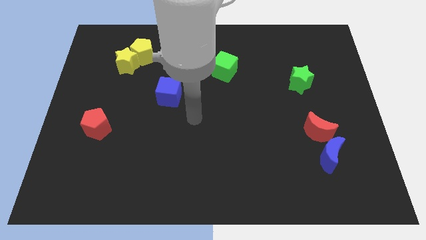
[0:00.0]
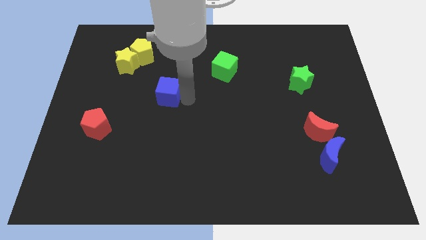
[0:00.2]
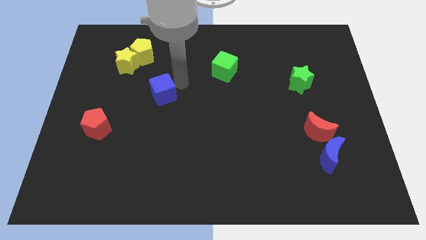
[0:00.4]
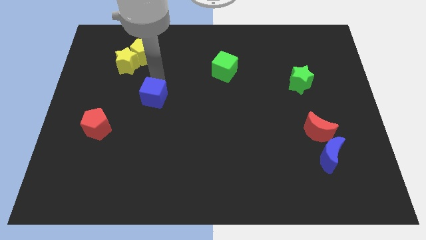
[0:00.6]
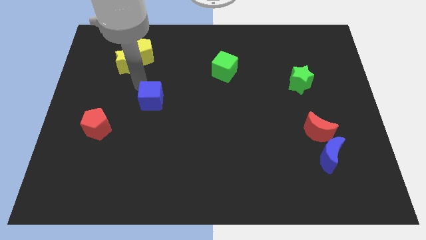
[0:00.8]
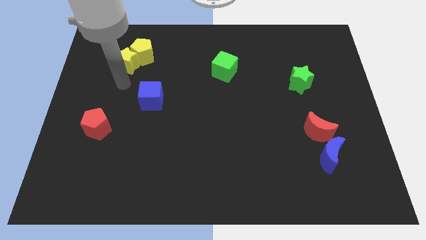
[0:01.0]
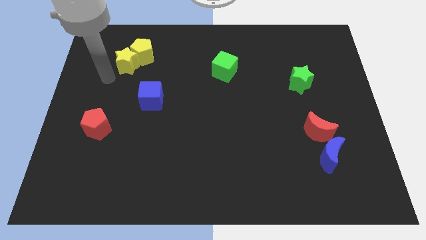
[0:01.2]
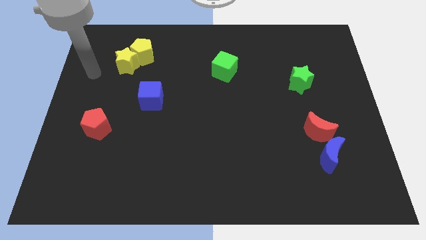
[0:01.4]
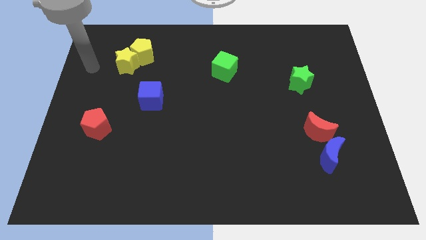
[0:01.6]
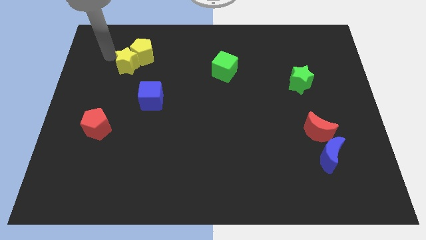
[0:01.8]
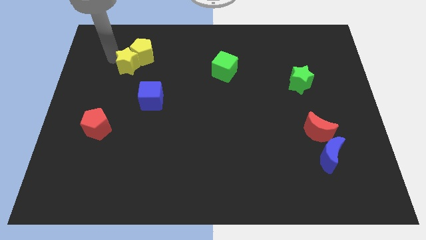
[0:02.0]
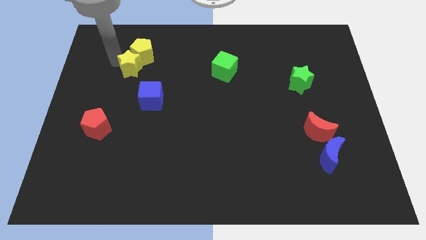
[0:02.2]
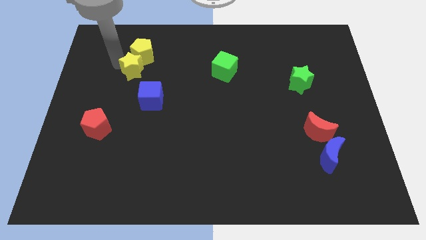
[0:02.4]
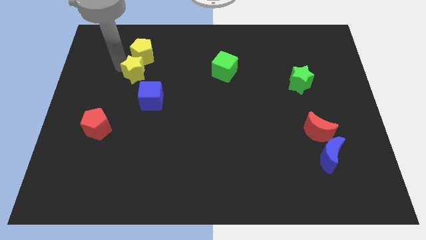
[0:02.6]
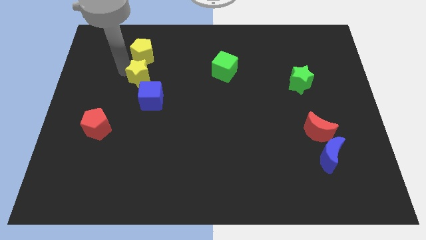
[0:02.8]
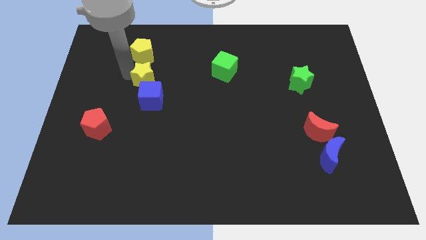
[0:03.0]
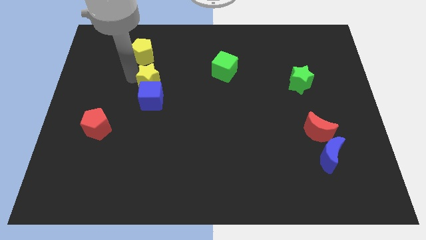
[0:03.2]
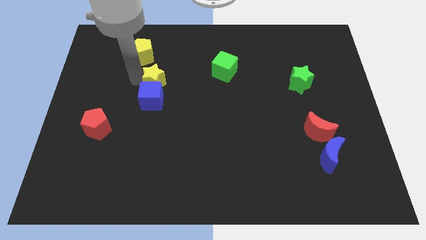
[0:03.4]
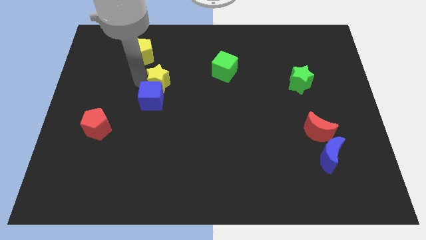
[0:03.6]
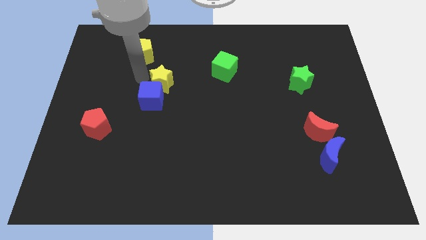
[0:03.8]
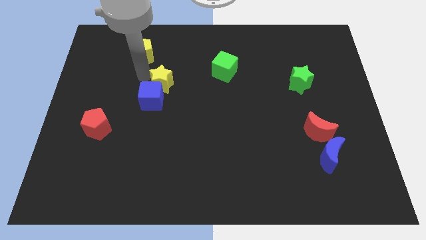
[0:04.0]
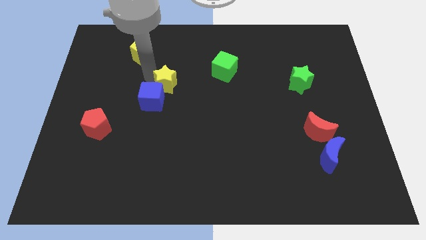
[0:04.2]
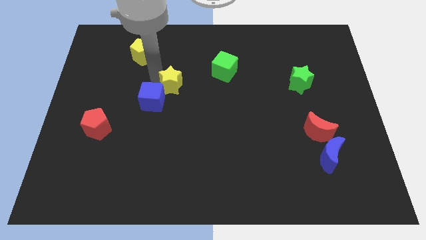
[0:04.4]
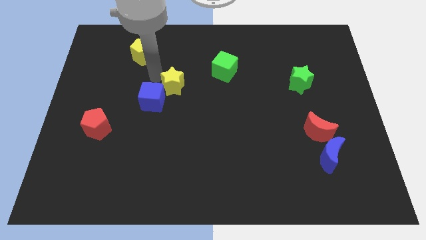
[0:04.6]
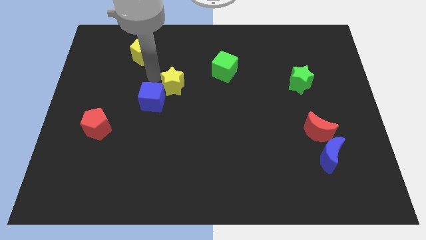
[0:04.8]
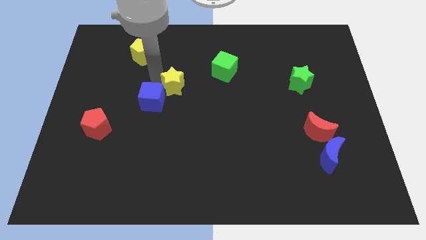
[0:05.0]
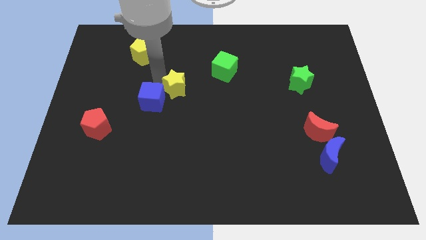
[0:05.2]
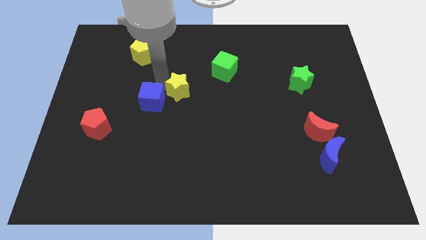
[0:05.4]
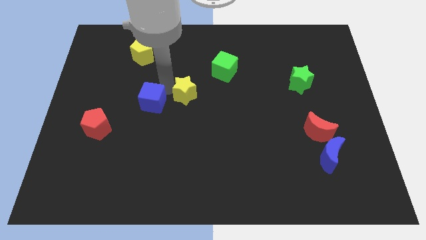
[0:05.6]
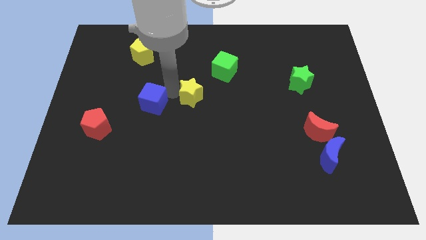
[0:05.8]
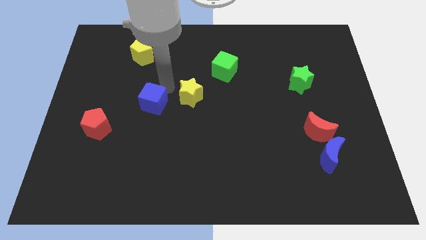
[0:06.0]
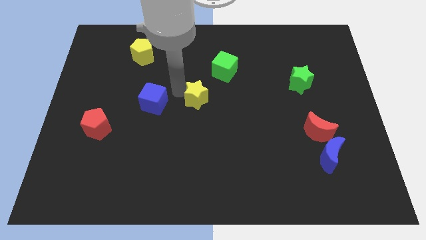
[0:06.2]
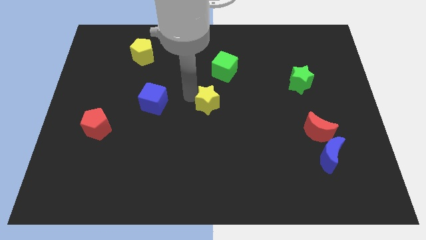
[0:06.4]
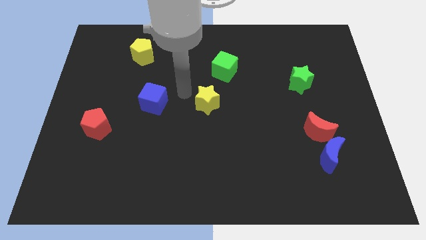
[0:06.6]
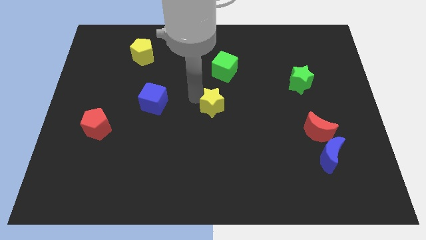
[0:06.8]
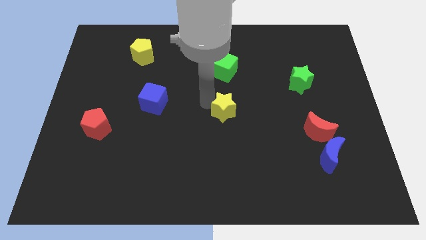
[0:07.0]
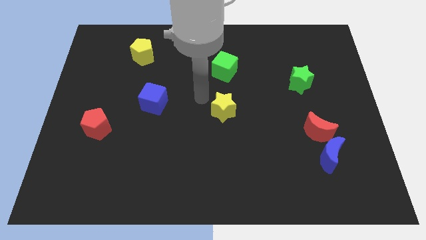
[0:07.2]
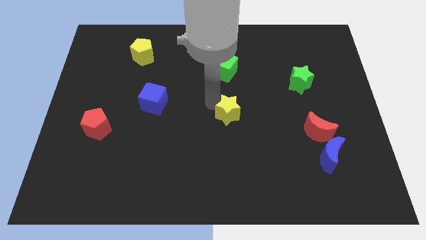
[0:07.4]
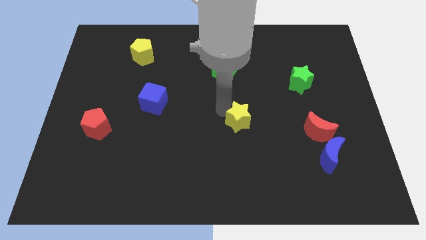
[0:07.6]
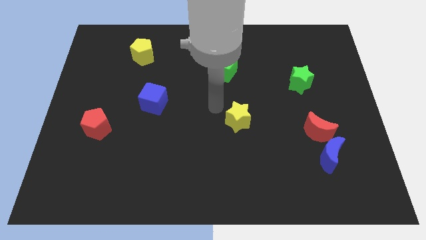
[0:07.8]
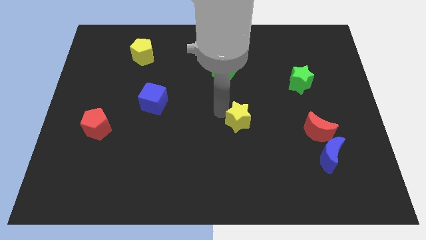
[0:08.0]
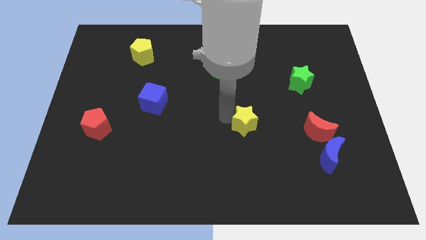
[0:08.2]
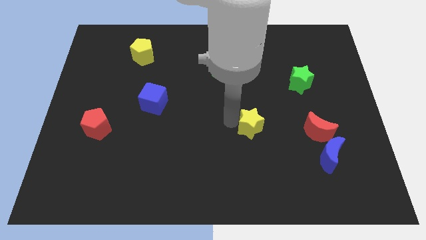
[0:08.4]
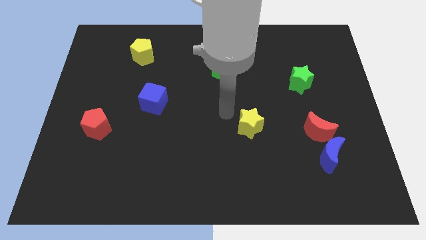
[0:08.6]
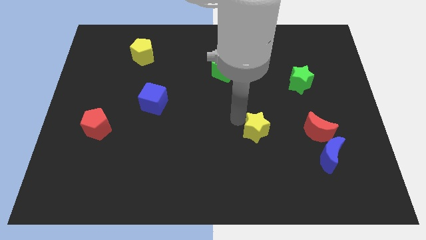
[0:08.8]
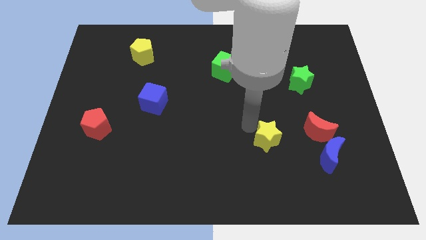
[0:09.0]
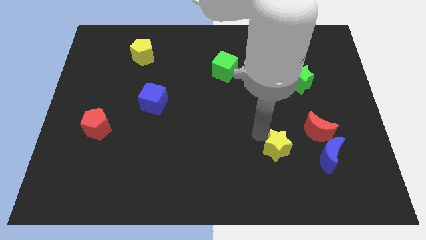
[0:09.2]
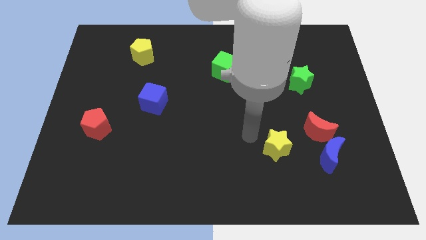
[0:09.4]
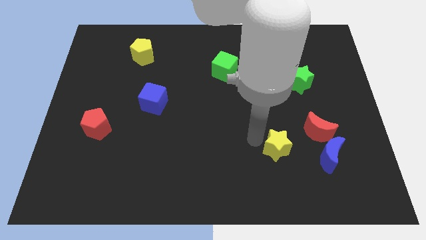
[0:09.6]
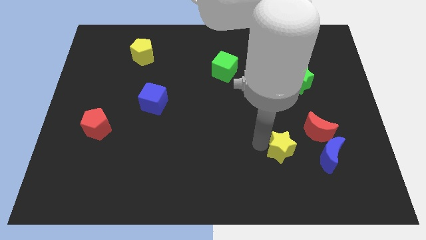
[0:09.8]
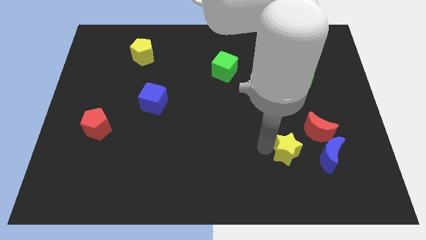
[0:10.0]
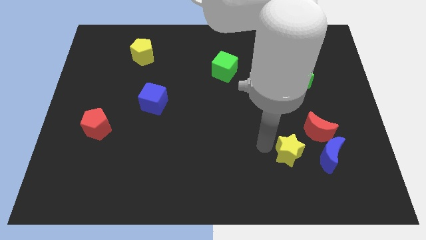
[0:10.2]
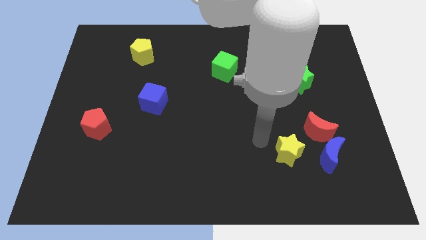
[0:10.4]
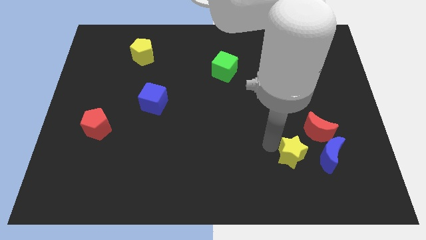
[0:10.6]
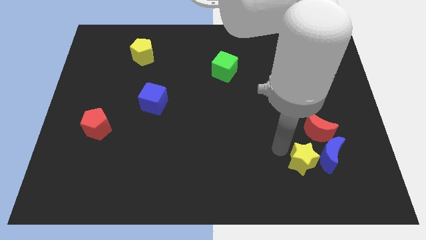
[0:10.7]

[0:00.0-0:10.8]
push the yellow star below the red moon

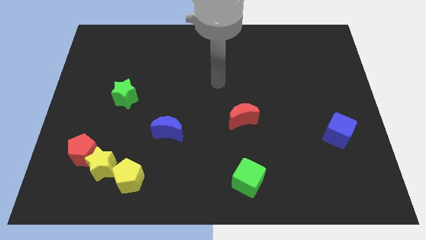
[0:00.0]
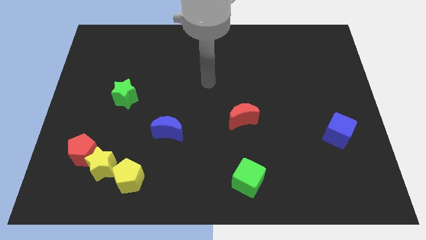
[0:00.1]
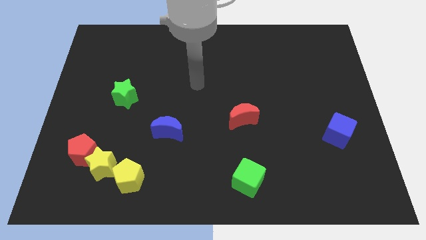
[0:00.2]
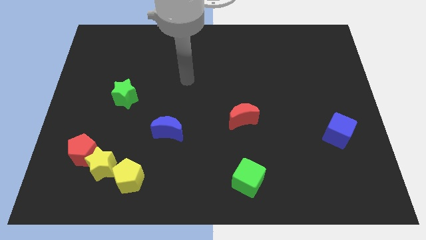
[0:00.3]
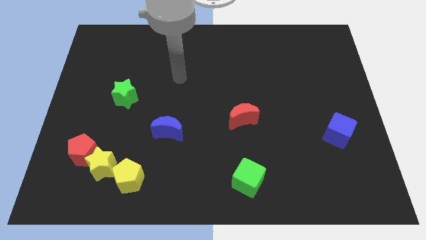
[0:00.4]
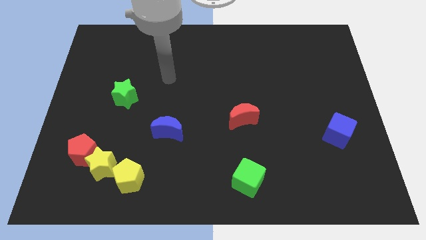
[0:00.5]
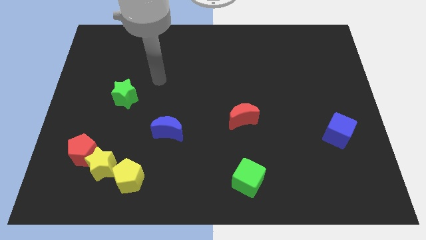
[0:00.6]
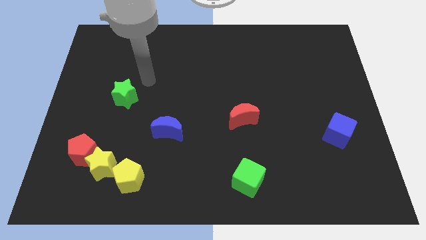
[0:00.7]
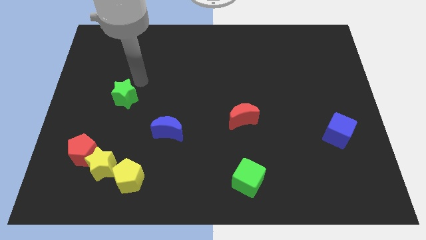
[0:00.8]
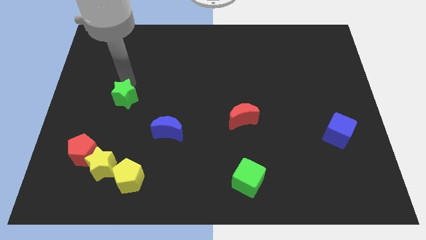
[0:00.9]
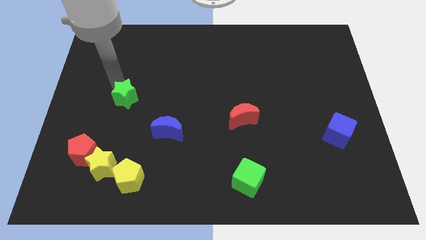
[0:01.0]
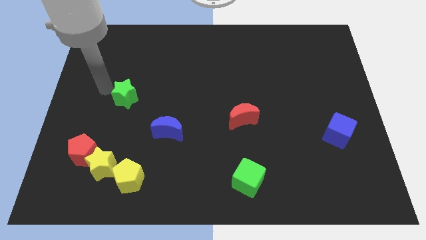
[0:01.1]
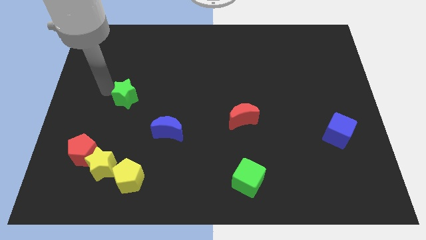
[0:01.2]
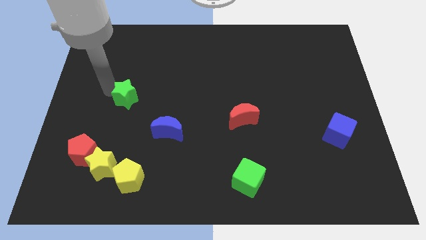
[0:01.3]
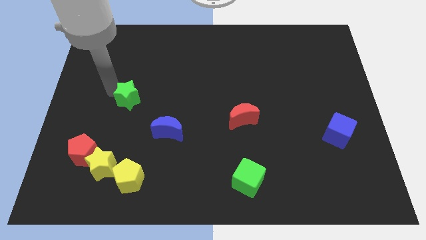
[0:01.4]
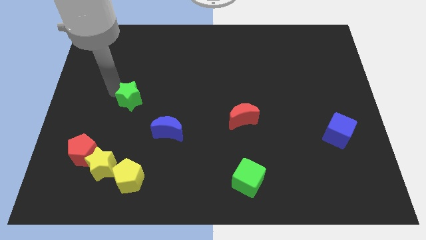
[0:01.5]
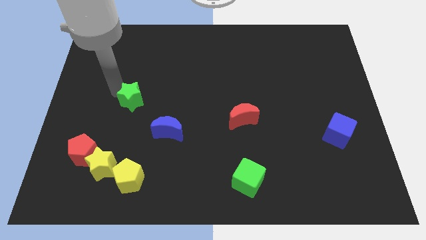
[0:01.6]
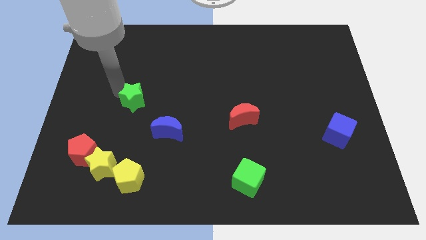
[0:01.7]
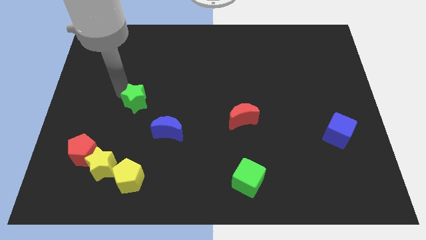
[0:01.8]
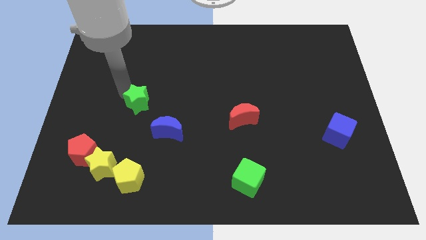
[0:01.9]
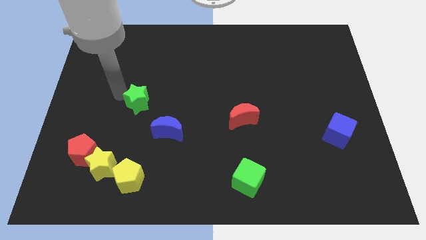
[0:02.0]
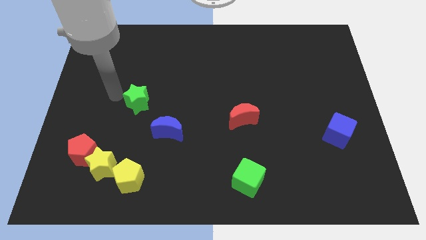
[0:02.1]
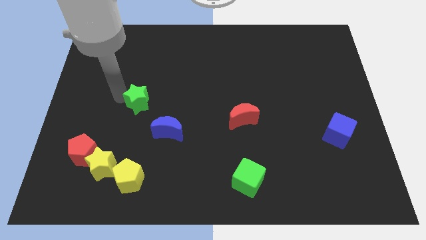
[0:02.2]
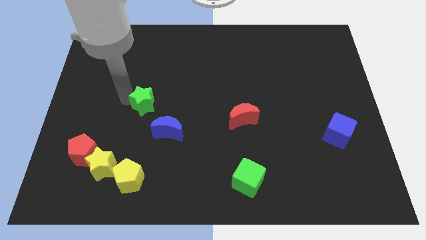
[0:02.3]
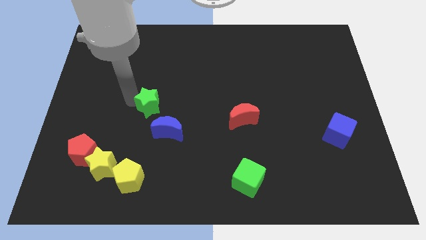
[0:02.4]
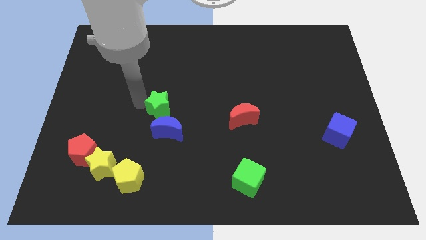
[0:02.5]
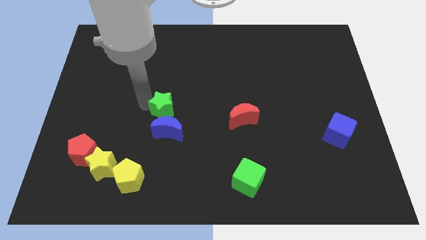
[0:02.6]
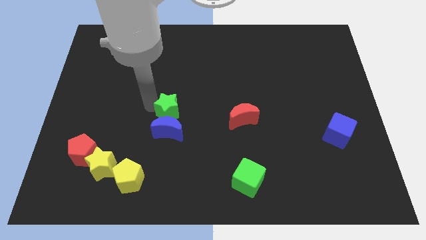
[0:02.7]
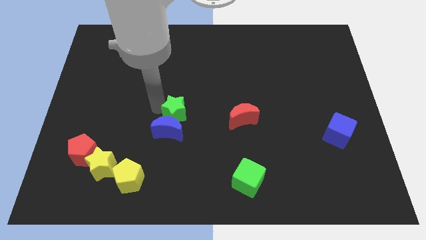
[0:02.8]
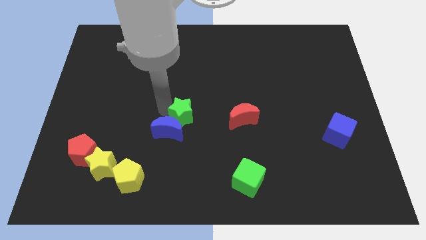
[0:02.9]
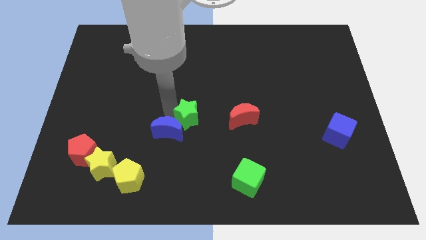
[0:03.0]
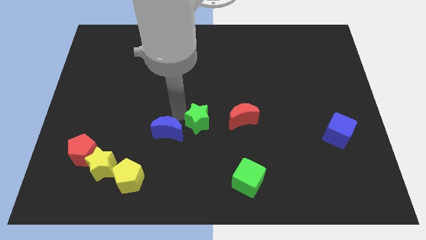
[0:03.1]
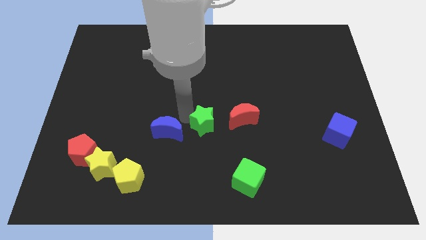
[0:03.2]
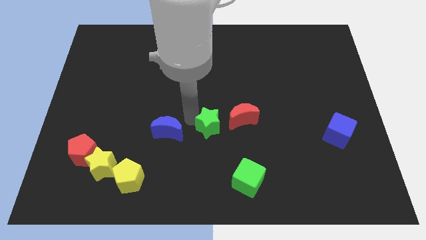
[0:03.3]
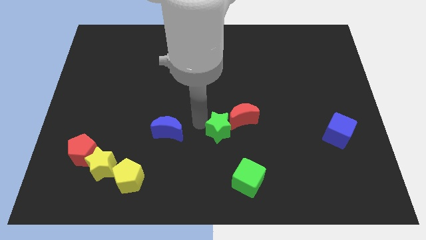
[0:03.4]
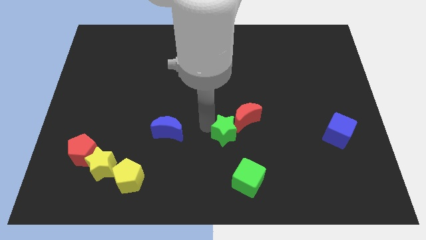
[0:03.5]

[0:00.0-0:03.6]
push the green star to the top side of the green cube
